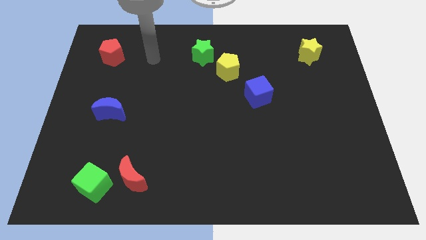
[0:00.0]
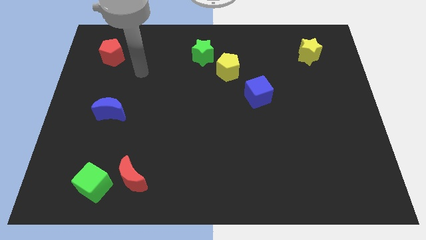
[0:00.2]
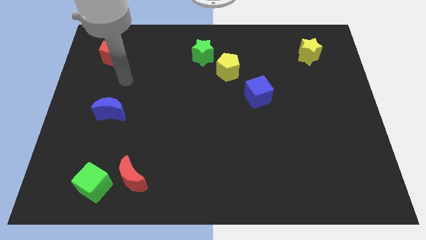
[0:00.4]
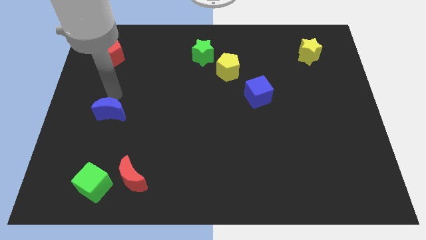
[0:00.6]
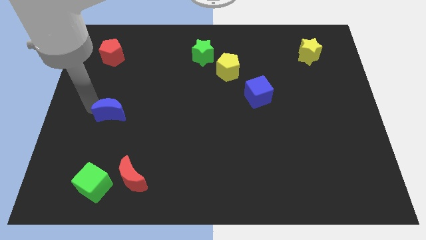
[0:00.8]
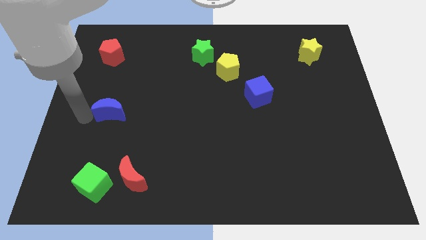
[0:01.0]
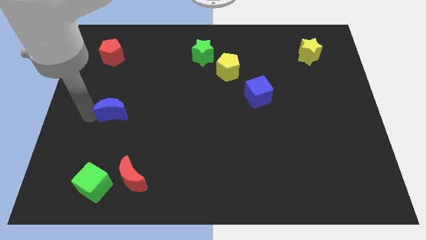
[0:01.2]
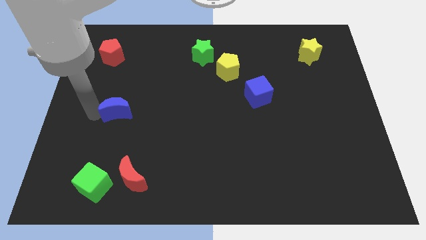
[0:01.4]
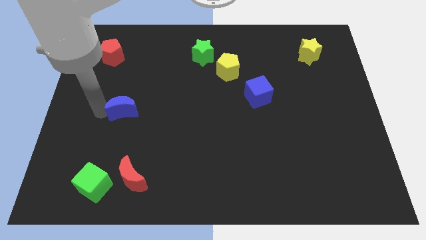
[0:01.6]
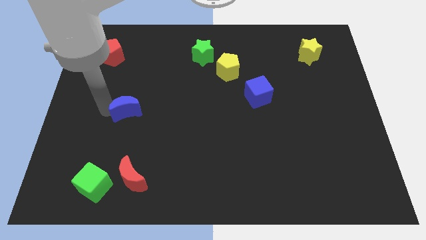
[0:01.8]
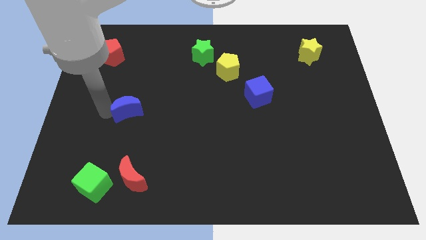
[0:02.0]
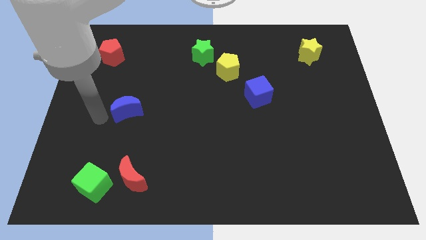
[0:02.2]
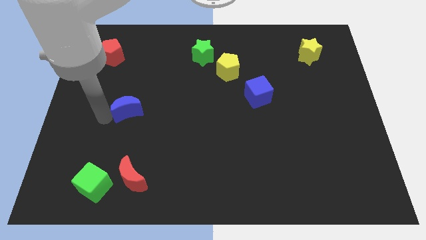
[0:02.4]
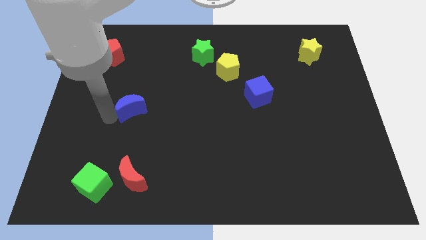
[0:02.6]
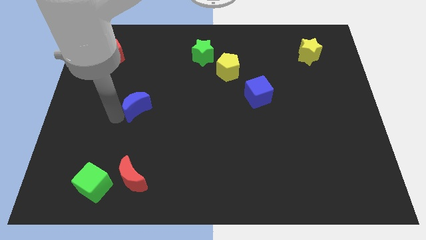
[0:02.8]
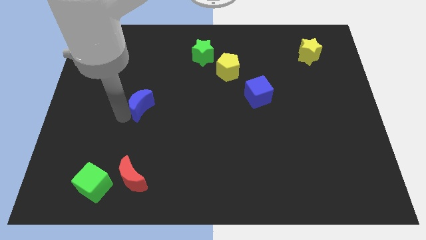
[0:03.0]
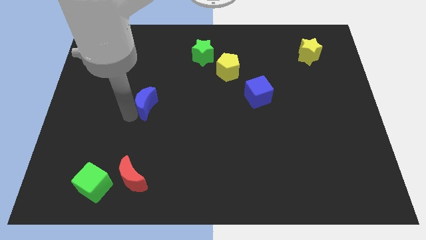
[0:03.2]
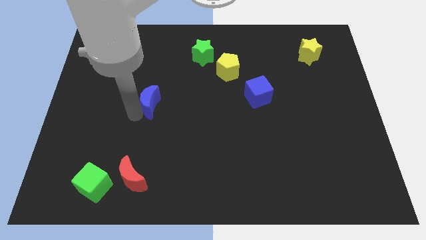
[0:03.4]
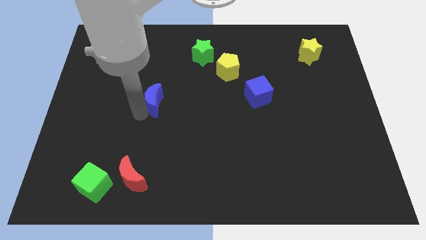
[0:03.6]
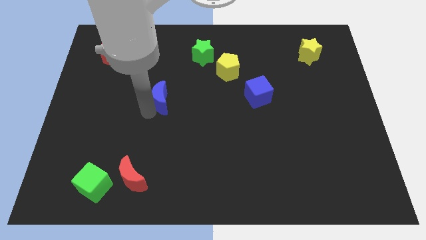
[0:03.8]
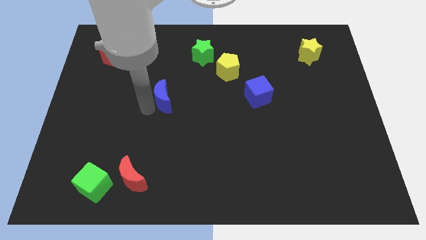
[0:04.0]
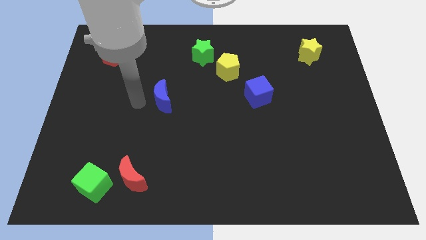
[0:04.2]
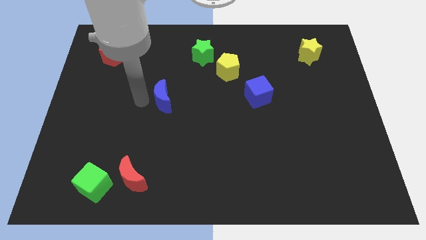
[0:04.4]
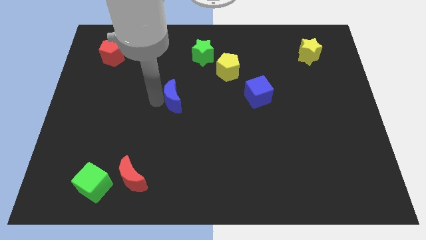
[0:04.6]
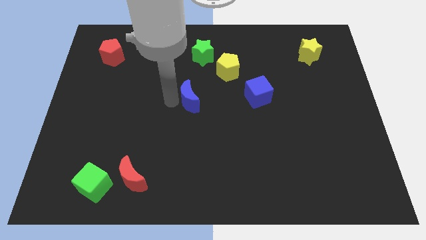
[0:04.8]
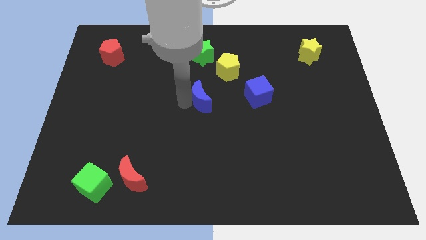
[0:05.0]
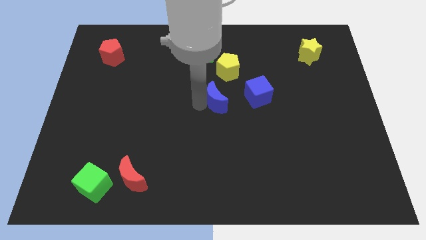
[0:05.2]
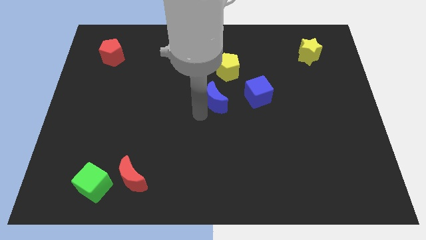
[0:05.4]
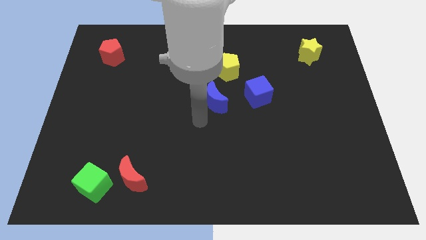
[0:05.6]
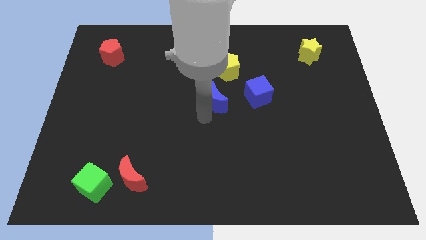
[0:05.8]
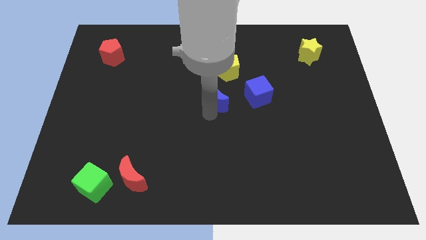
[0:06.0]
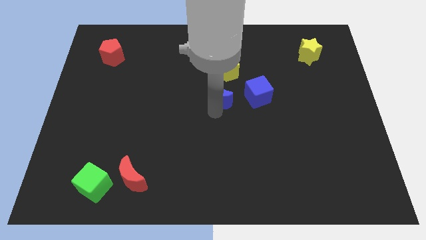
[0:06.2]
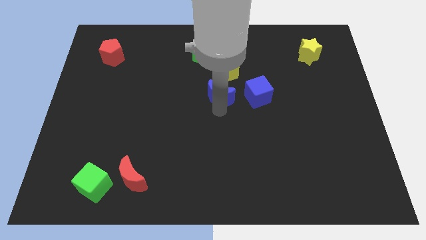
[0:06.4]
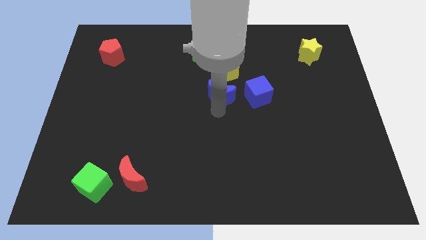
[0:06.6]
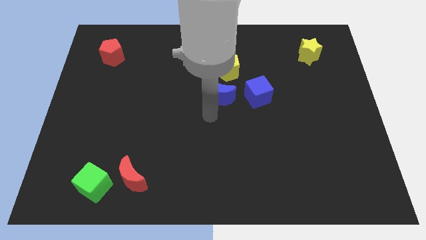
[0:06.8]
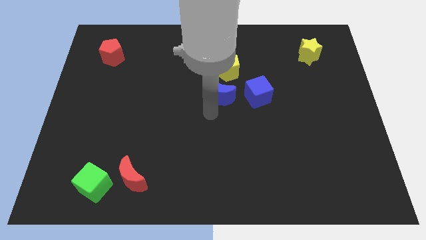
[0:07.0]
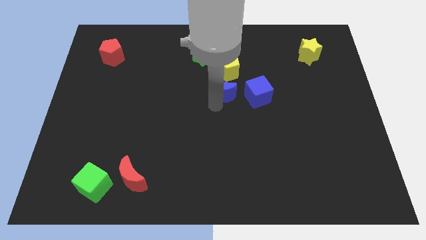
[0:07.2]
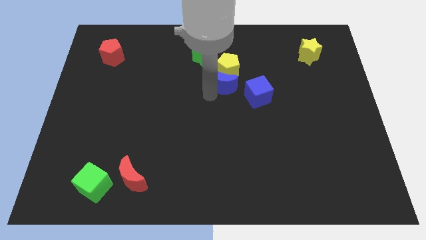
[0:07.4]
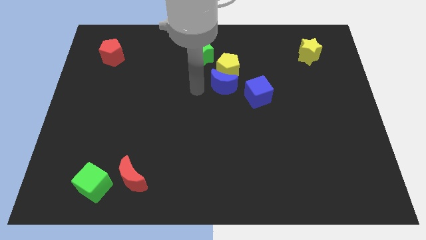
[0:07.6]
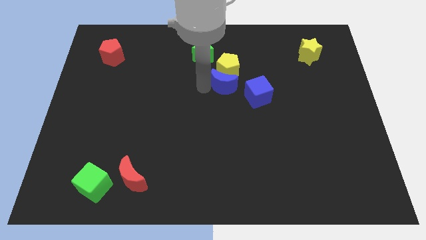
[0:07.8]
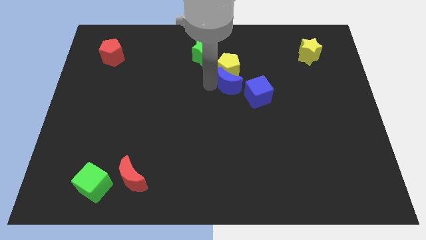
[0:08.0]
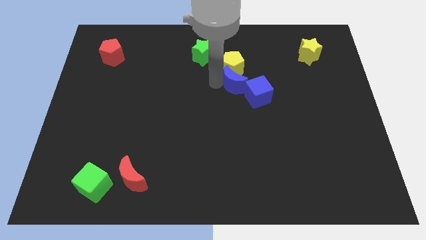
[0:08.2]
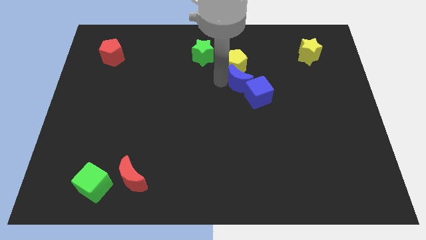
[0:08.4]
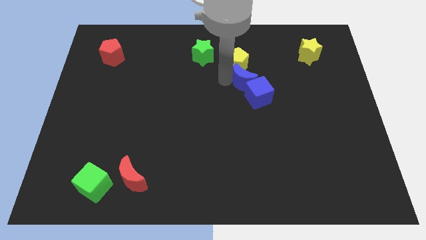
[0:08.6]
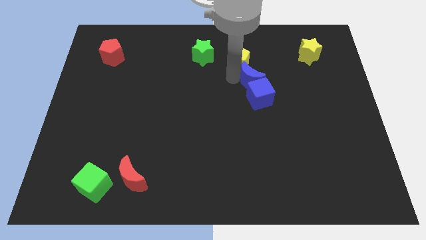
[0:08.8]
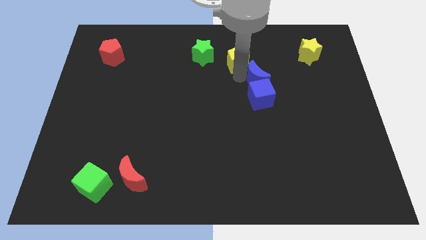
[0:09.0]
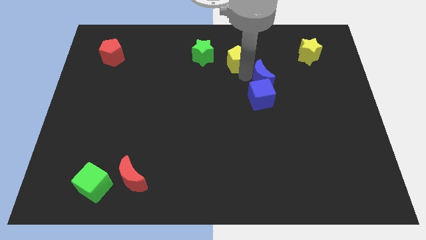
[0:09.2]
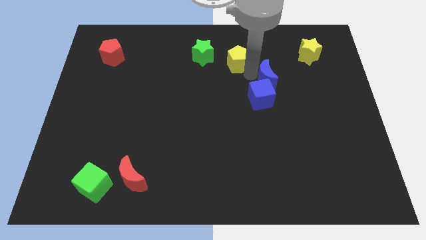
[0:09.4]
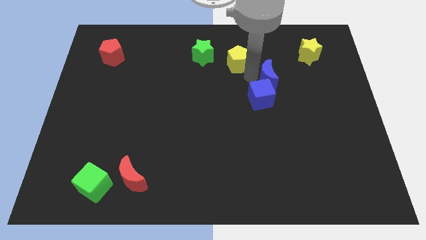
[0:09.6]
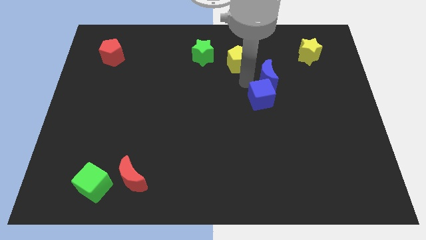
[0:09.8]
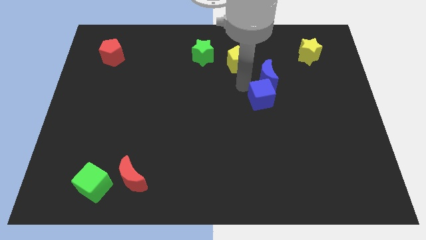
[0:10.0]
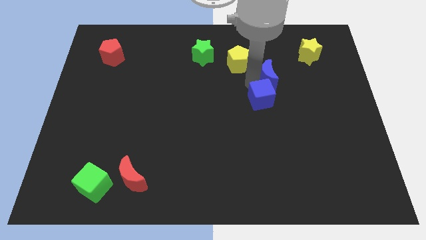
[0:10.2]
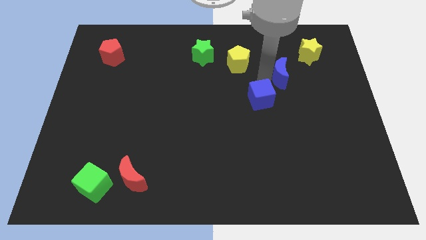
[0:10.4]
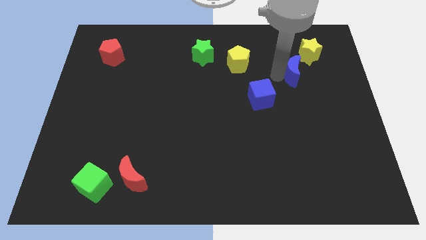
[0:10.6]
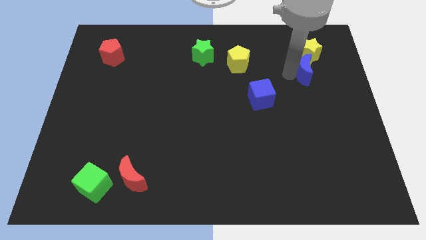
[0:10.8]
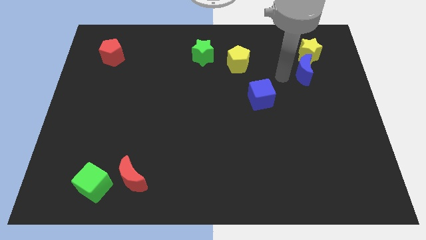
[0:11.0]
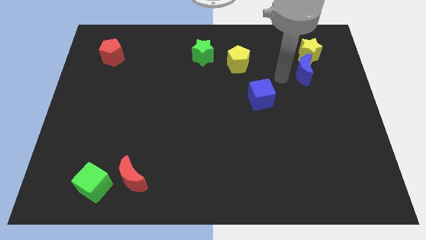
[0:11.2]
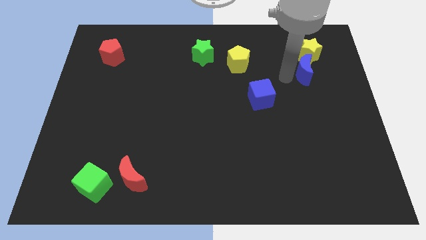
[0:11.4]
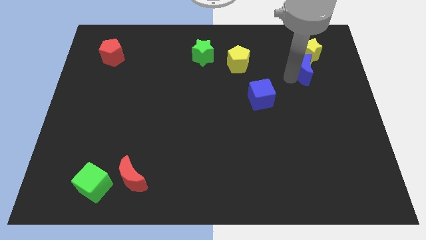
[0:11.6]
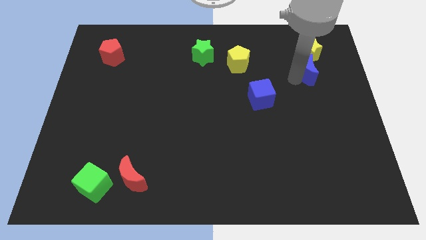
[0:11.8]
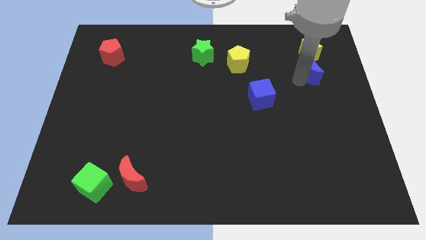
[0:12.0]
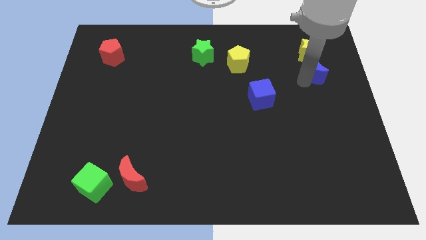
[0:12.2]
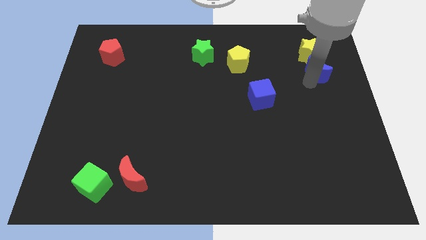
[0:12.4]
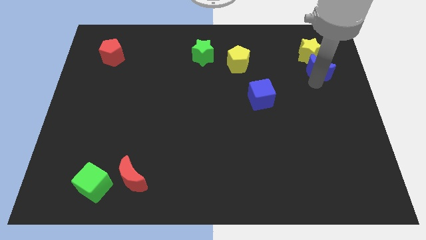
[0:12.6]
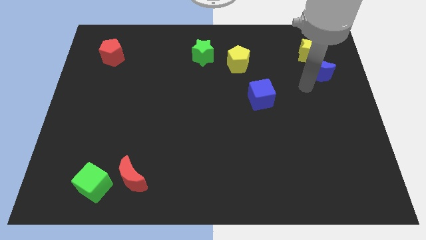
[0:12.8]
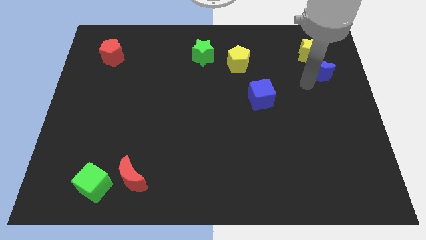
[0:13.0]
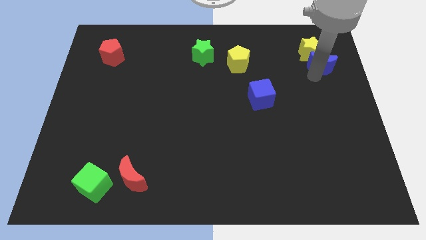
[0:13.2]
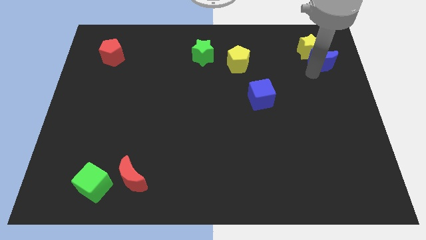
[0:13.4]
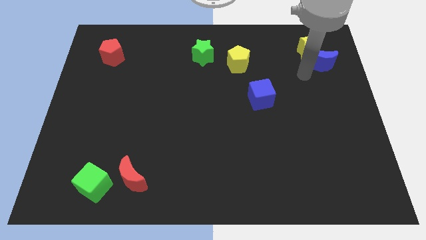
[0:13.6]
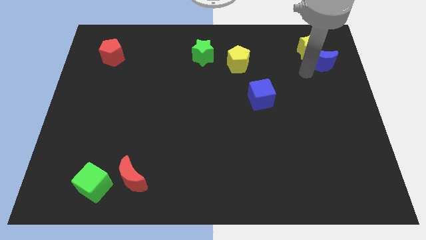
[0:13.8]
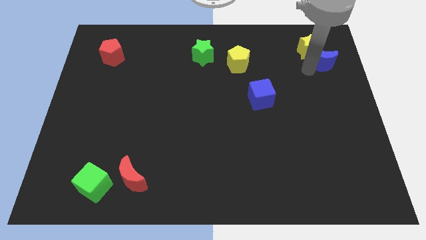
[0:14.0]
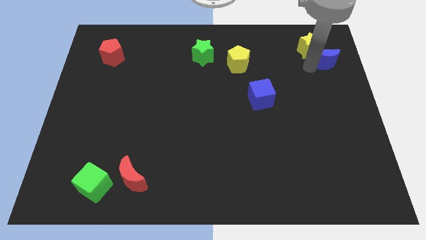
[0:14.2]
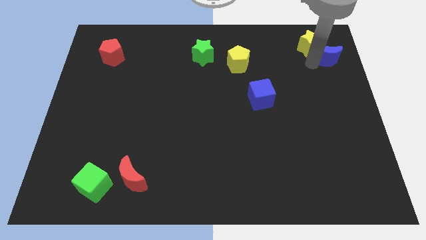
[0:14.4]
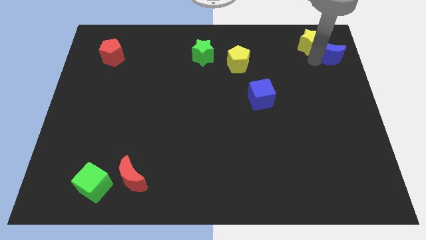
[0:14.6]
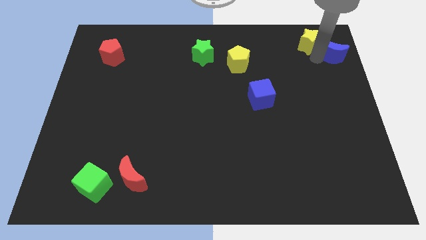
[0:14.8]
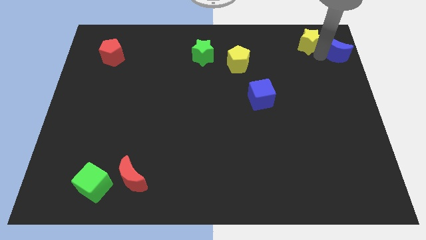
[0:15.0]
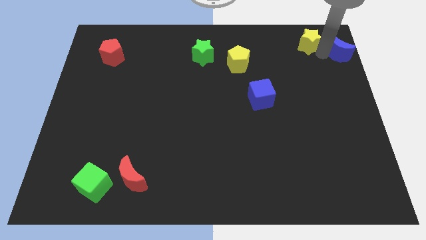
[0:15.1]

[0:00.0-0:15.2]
slide the blue moon to the upper right corner
